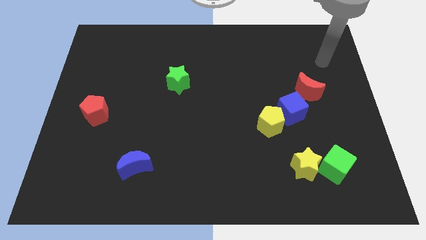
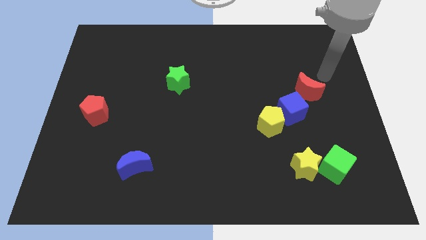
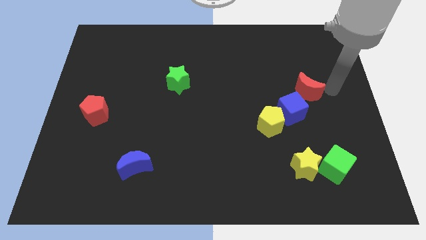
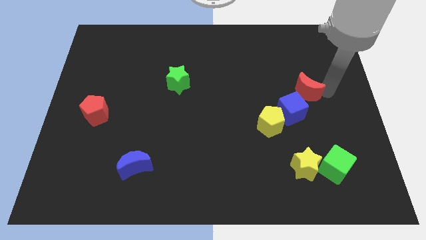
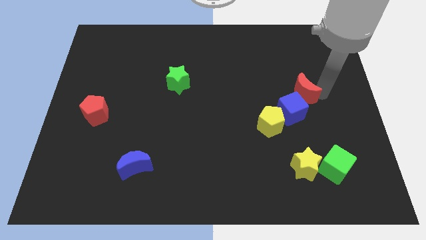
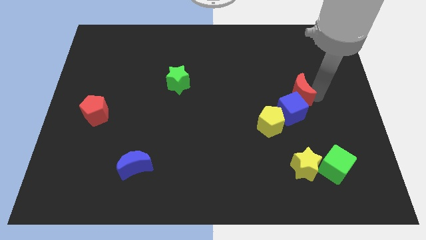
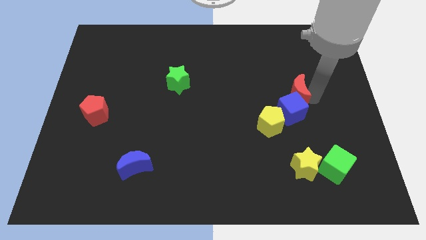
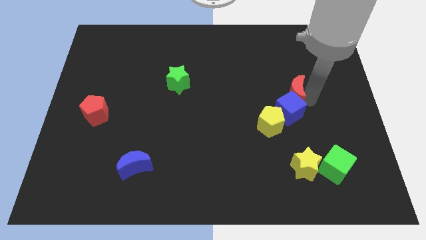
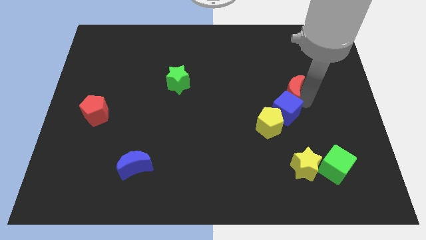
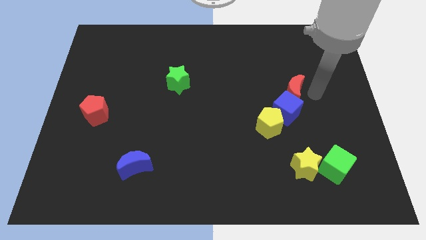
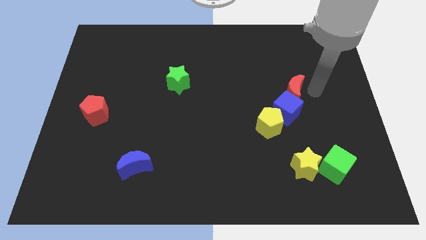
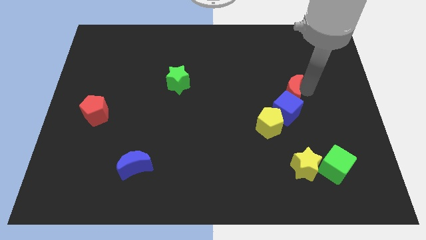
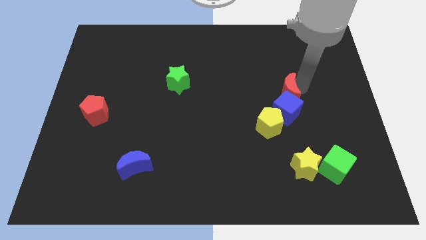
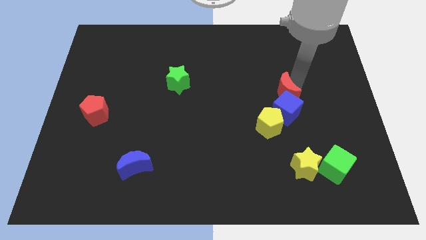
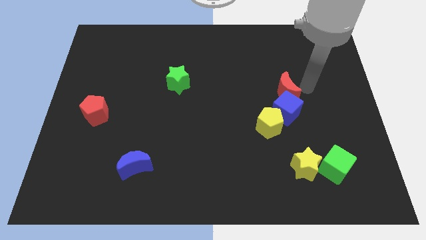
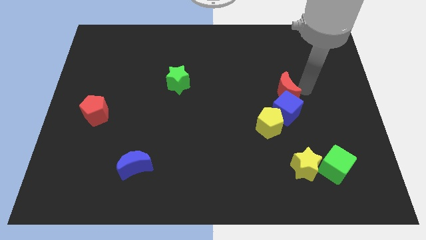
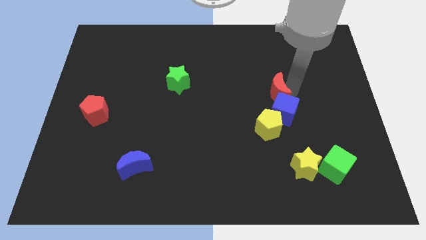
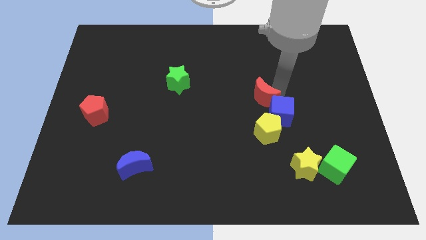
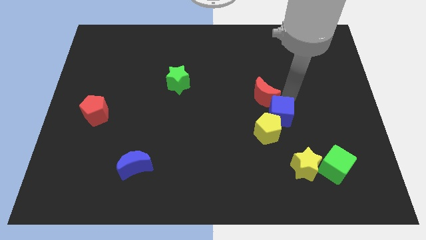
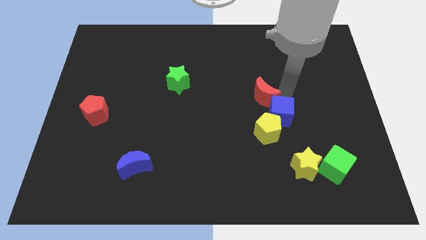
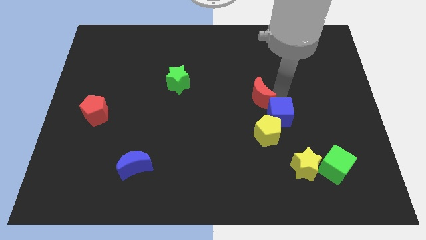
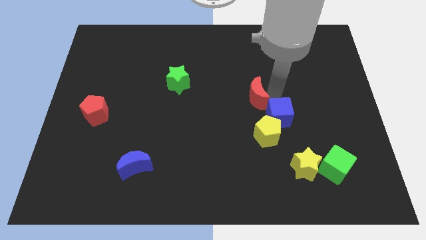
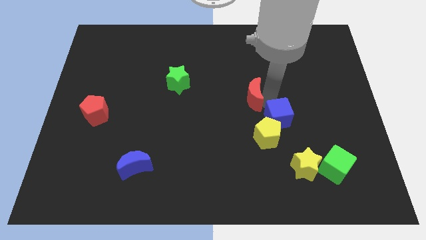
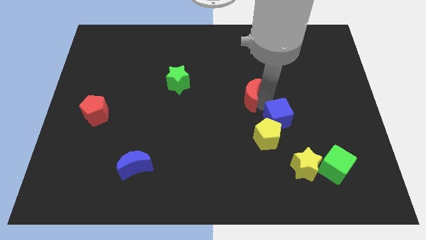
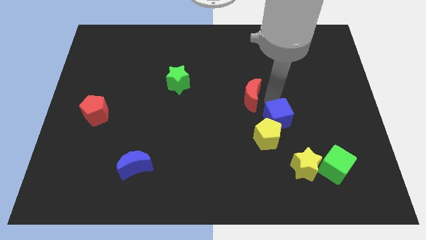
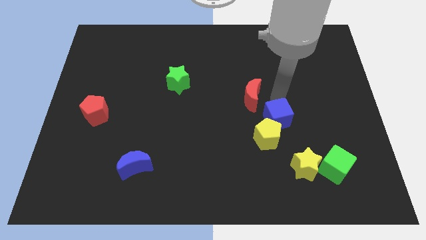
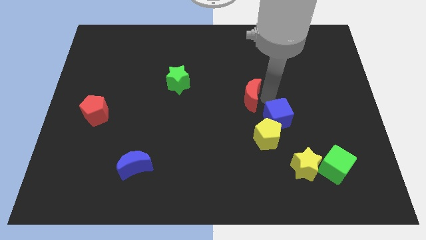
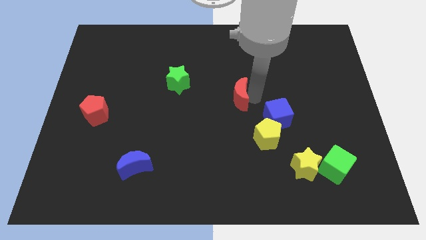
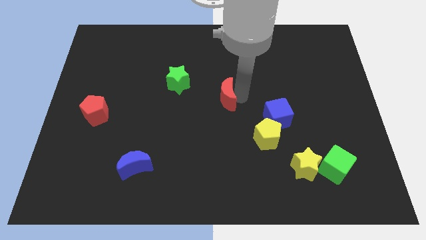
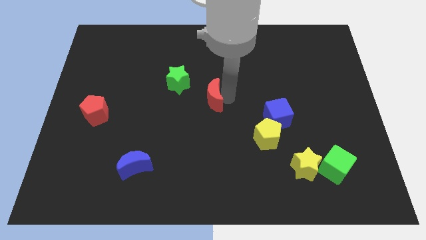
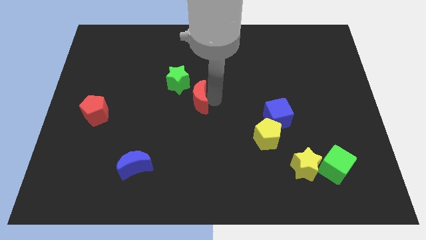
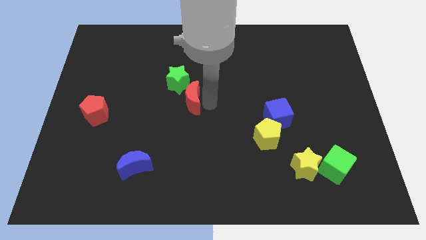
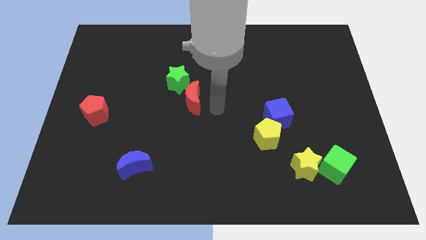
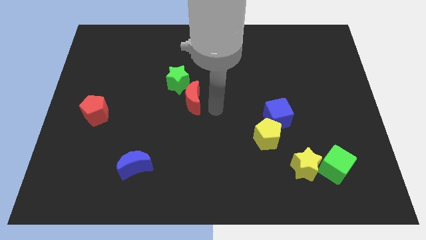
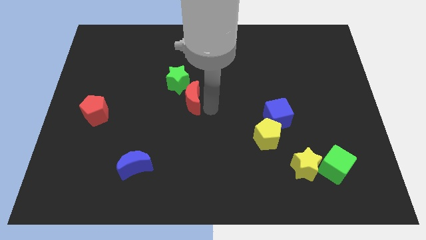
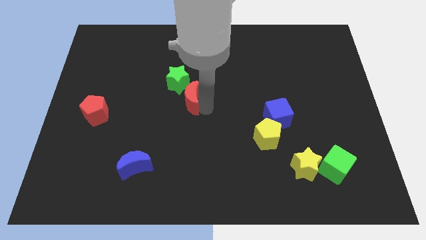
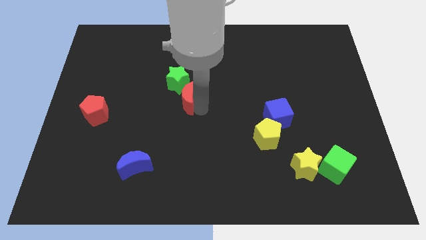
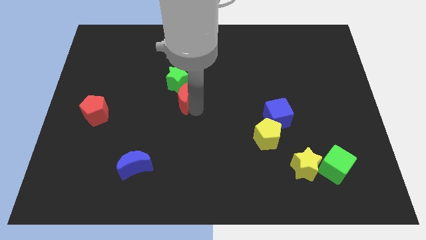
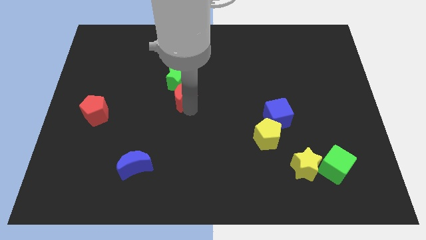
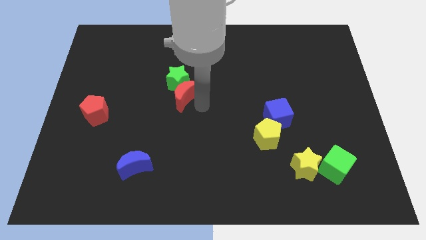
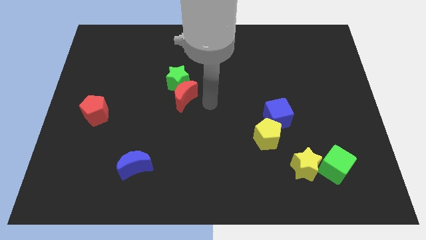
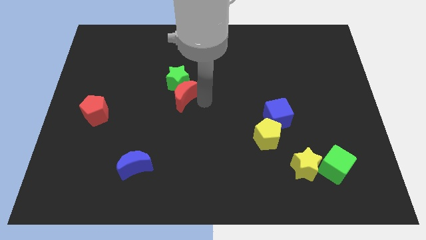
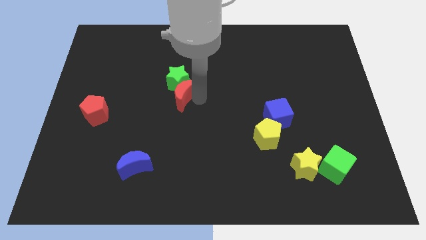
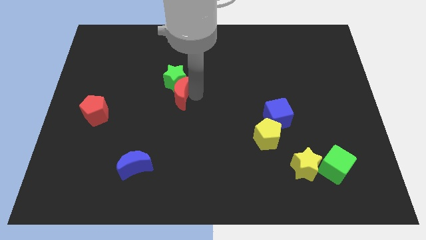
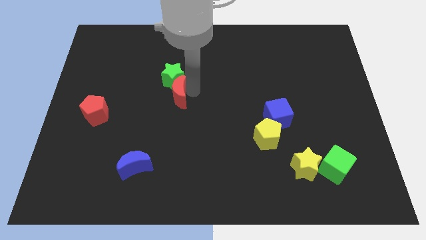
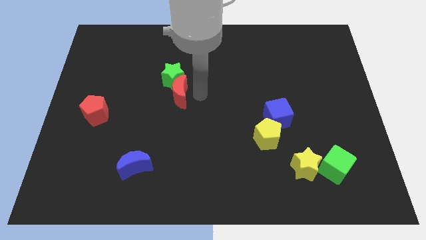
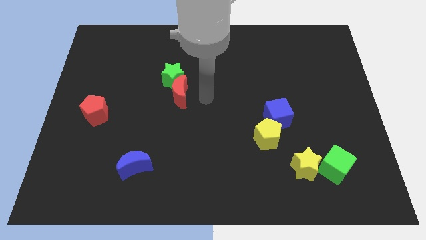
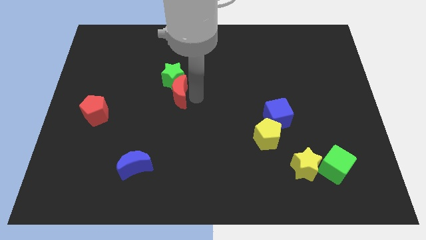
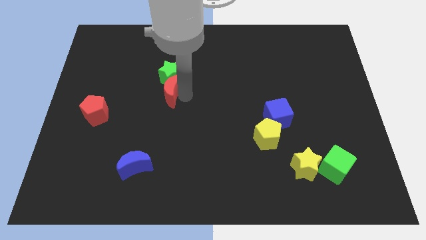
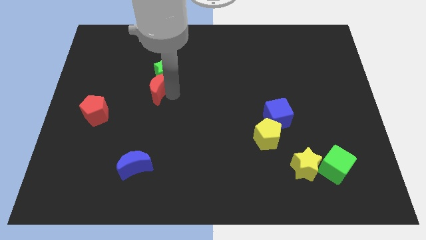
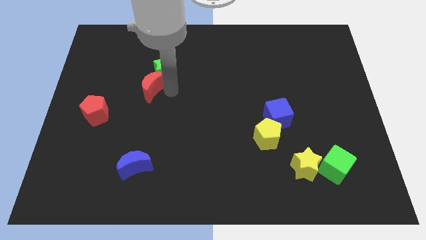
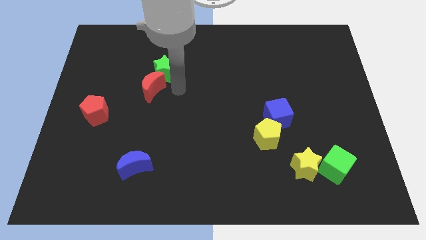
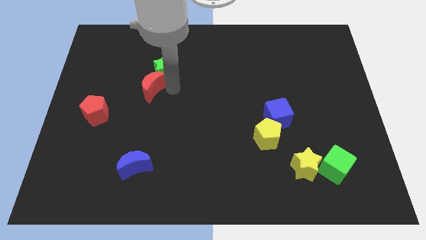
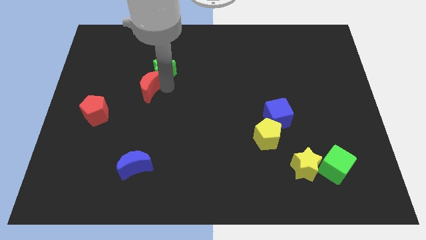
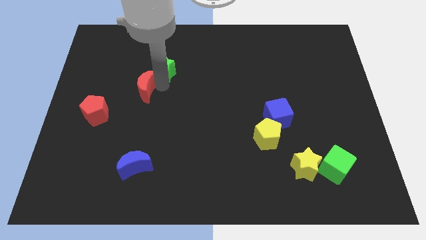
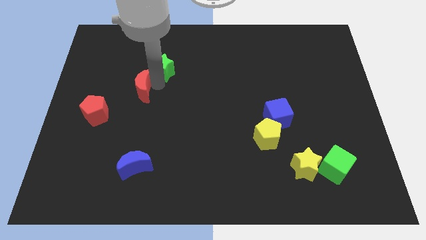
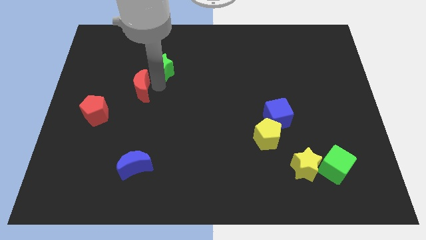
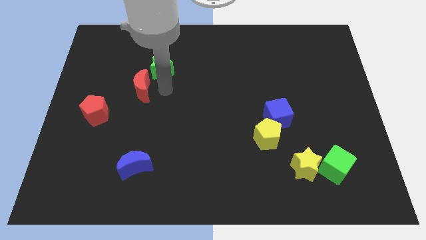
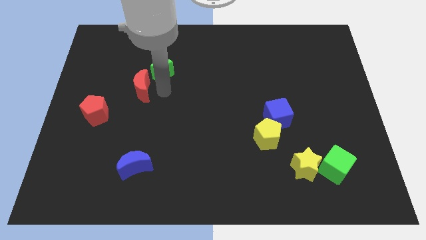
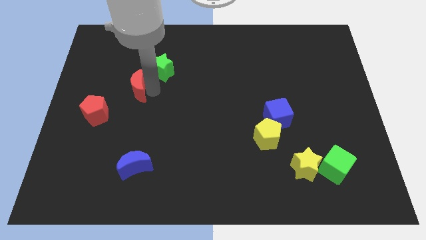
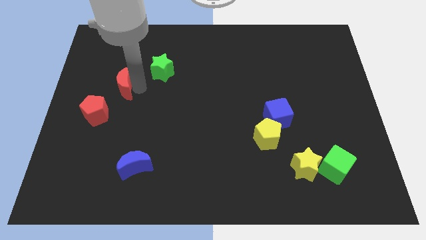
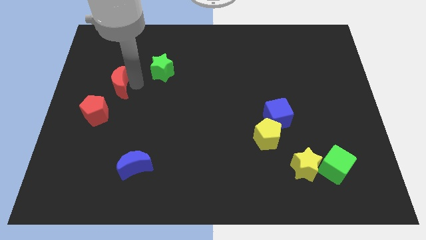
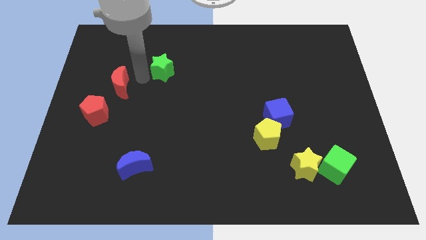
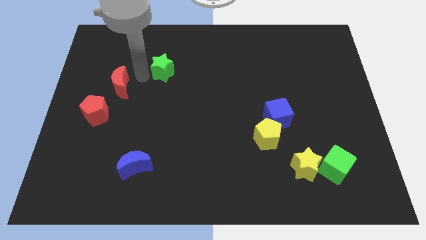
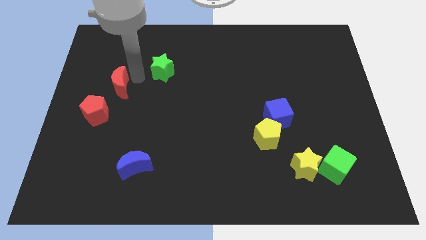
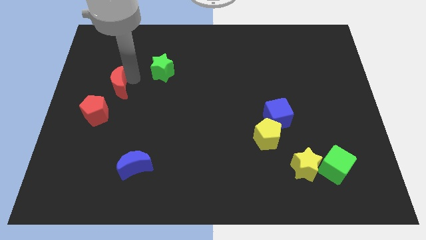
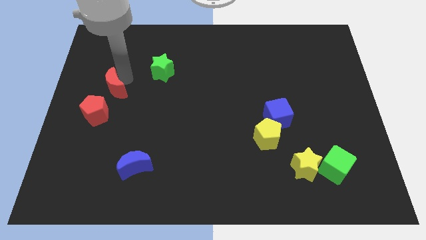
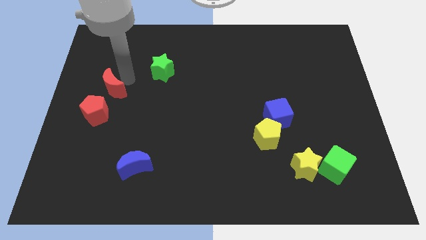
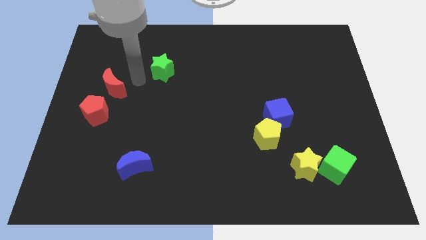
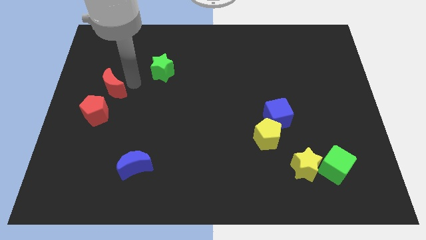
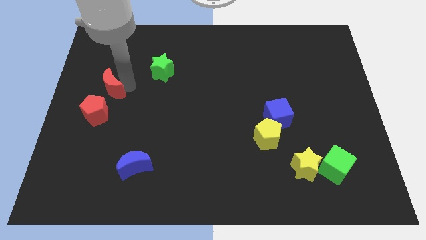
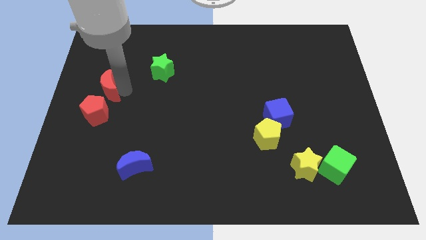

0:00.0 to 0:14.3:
put the red moon to the left side
